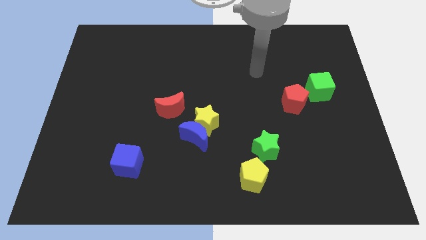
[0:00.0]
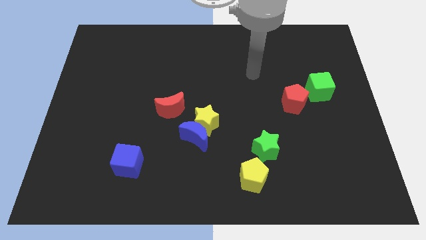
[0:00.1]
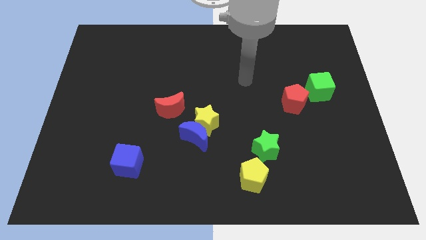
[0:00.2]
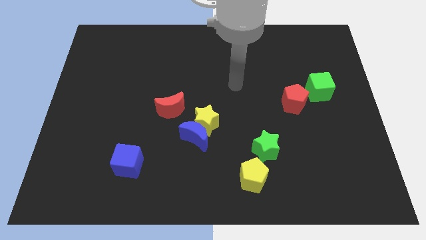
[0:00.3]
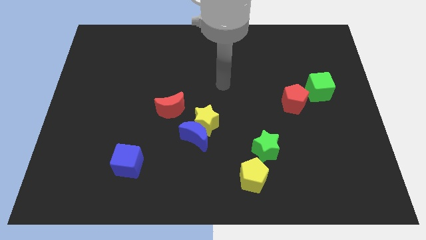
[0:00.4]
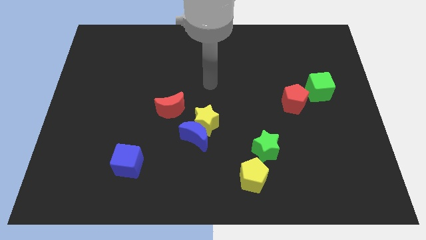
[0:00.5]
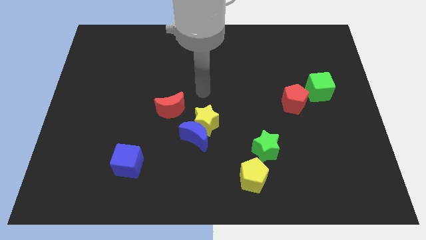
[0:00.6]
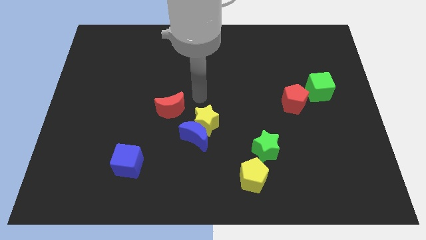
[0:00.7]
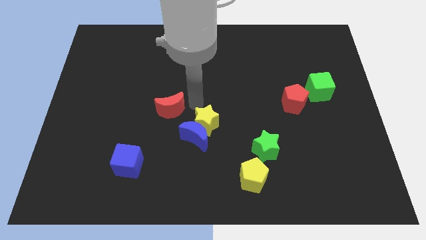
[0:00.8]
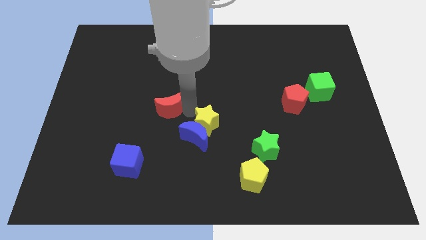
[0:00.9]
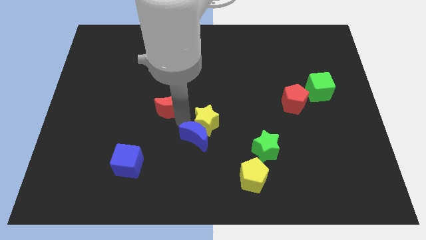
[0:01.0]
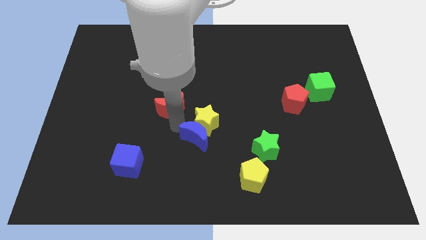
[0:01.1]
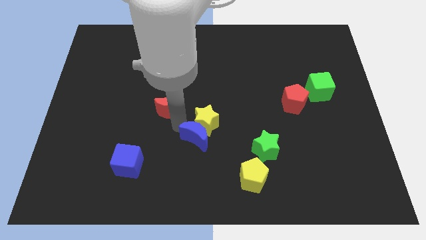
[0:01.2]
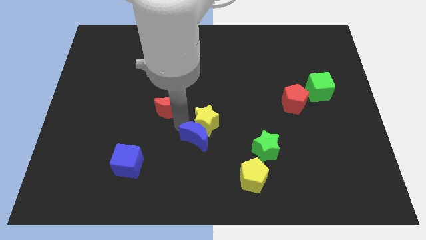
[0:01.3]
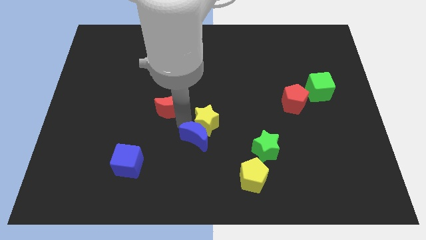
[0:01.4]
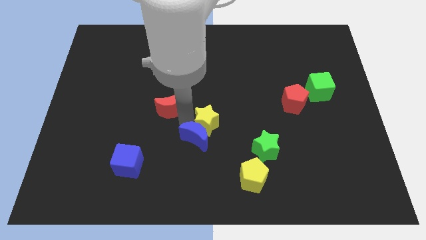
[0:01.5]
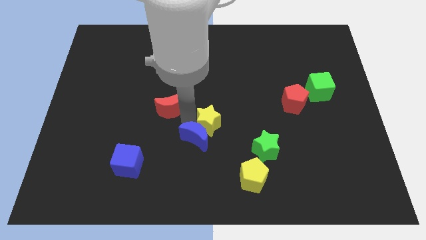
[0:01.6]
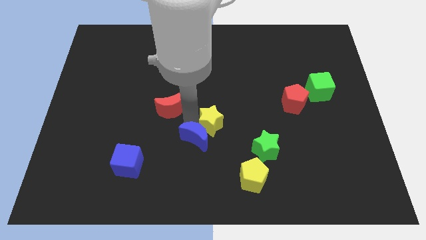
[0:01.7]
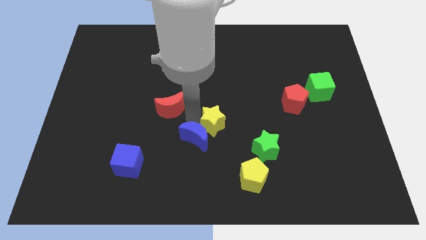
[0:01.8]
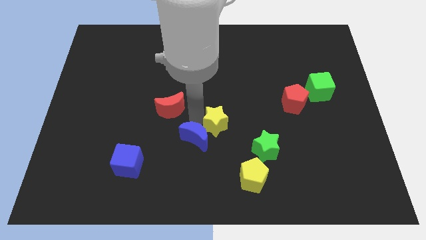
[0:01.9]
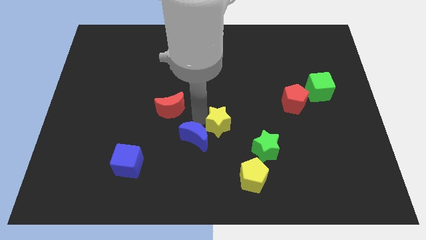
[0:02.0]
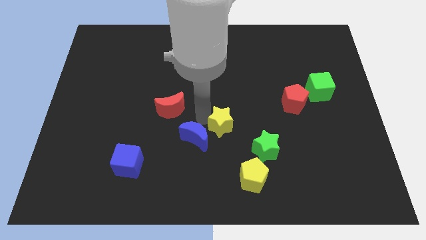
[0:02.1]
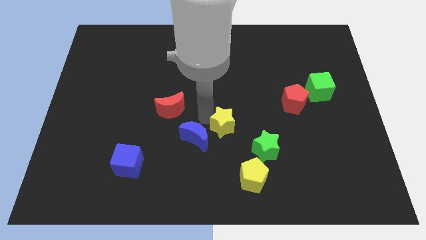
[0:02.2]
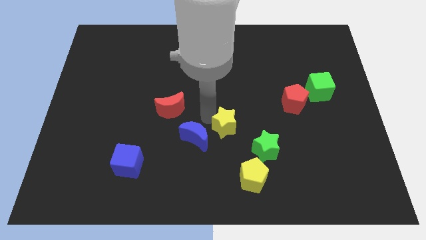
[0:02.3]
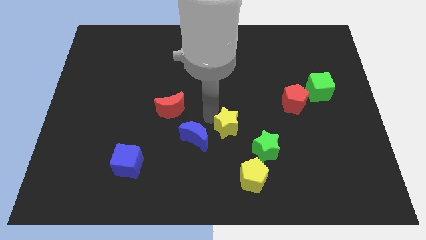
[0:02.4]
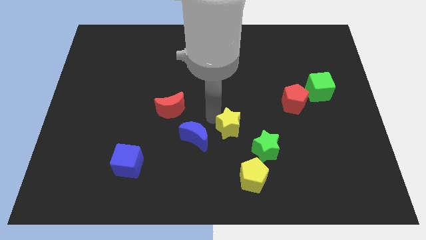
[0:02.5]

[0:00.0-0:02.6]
separate the yellow star from the blue moon and red moon

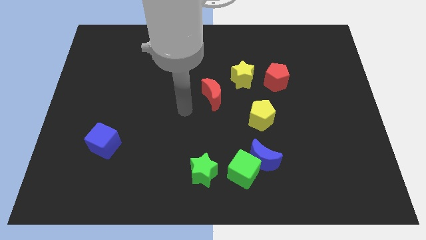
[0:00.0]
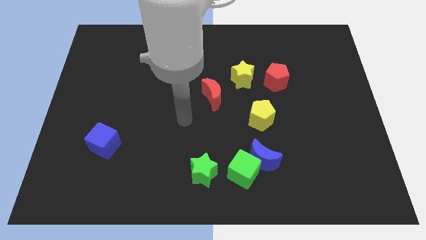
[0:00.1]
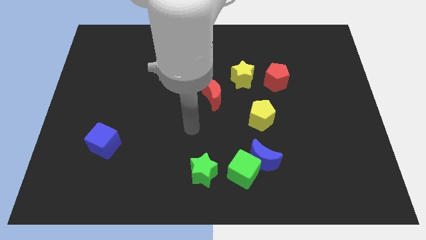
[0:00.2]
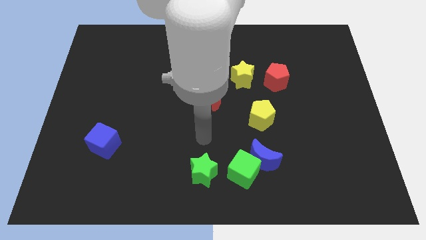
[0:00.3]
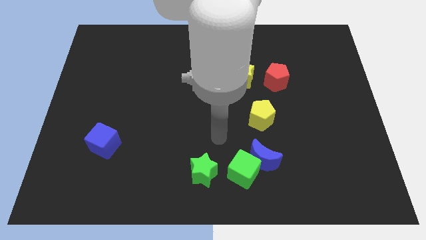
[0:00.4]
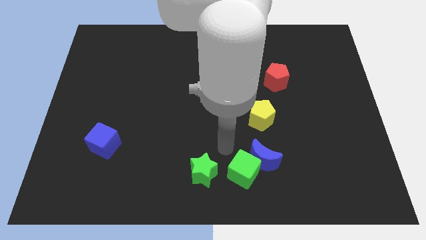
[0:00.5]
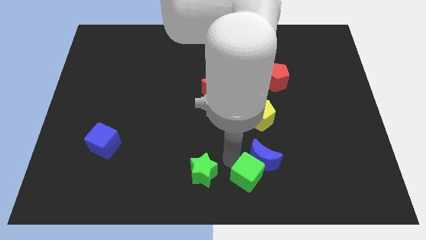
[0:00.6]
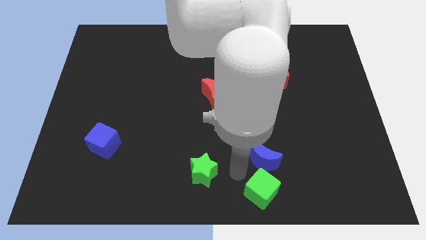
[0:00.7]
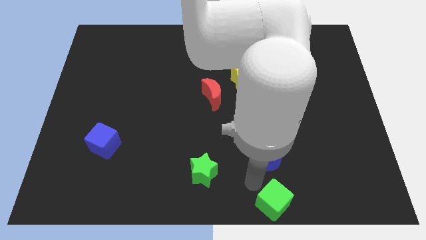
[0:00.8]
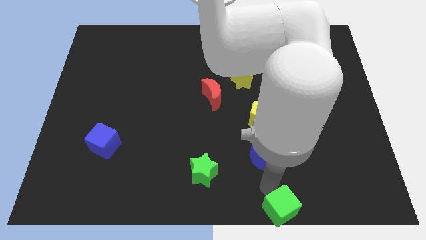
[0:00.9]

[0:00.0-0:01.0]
pull the blue moon apart from the green cube

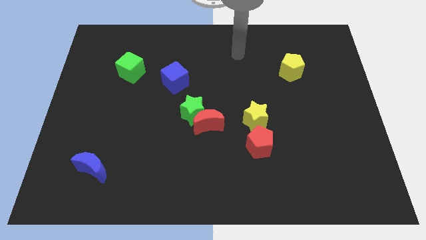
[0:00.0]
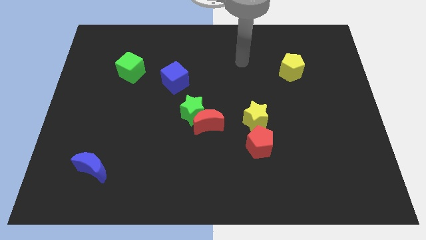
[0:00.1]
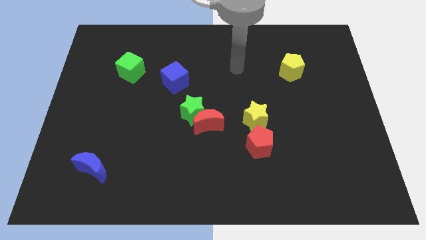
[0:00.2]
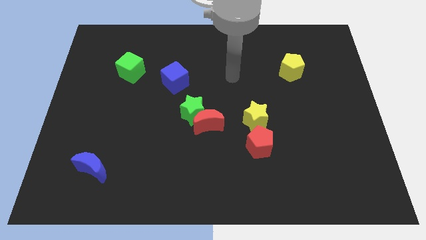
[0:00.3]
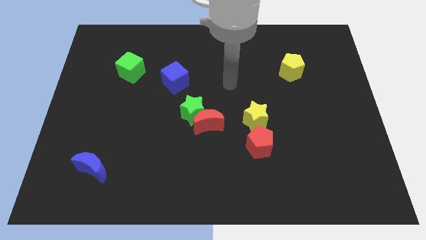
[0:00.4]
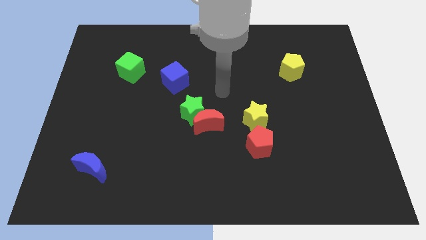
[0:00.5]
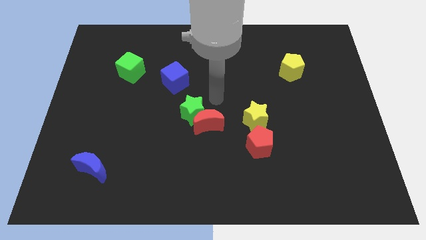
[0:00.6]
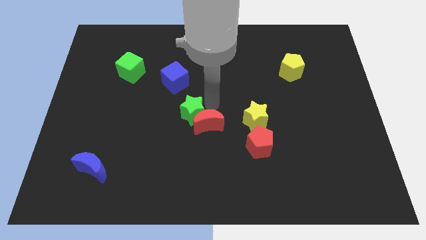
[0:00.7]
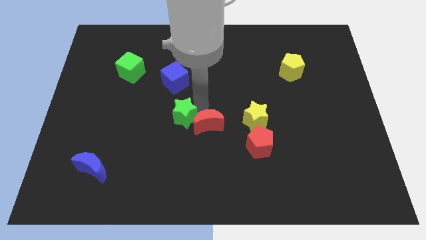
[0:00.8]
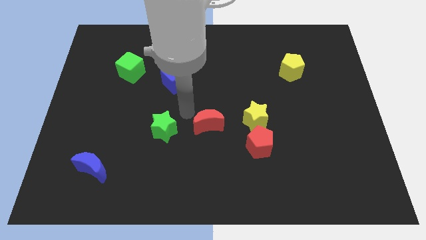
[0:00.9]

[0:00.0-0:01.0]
separate the red moon from the green star

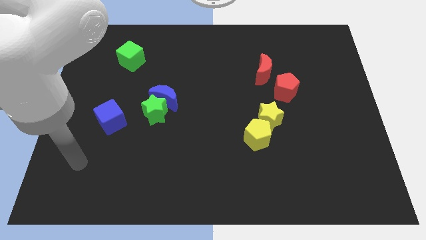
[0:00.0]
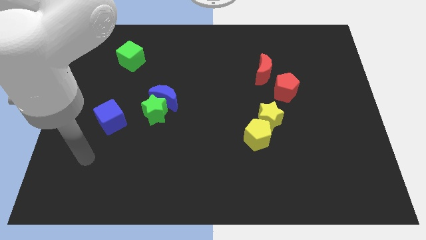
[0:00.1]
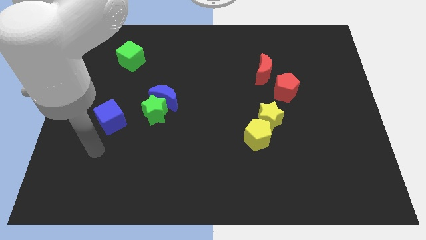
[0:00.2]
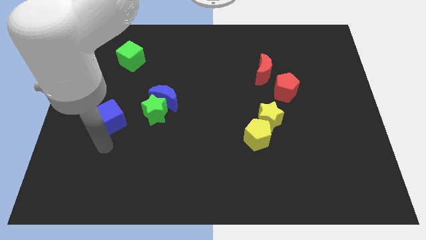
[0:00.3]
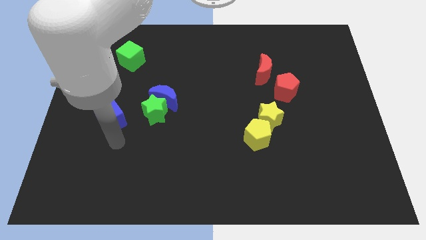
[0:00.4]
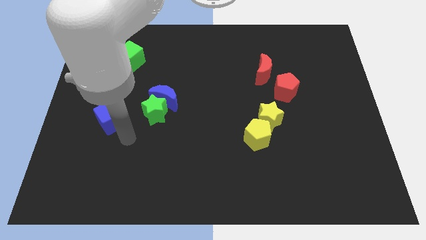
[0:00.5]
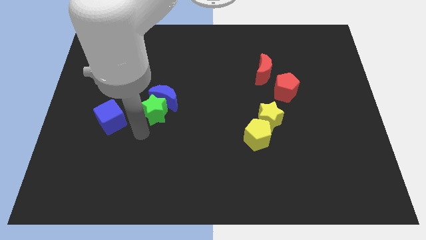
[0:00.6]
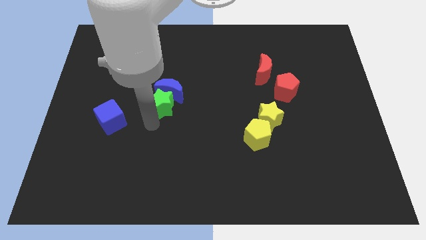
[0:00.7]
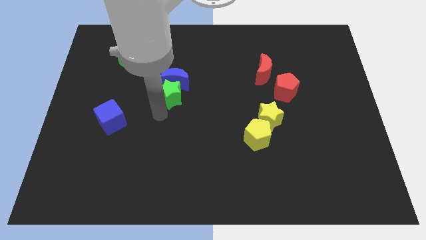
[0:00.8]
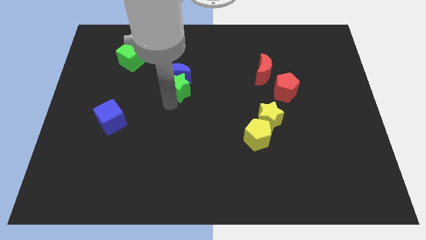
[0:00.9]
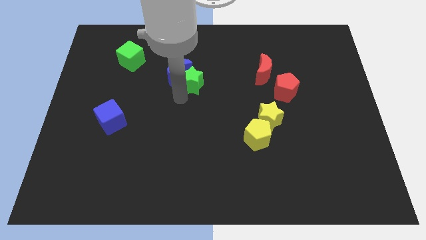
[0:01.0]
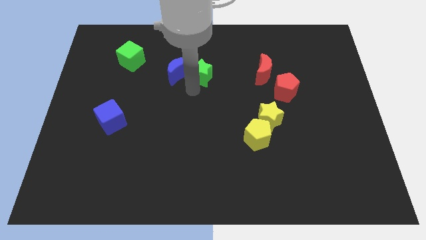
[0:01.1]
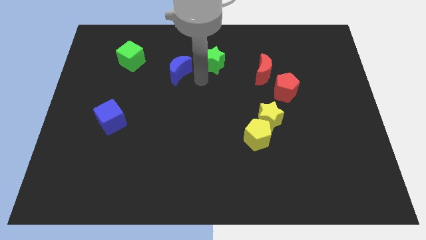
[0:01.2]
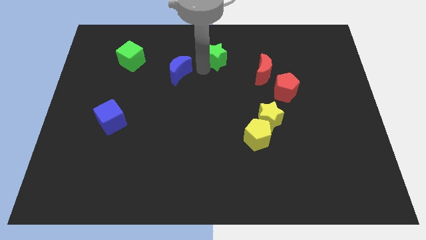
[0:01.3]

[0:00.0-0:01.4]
separate the blue moon from the green star

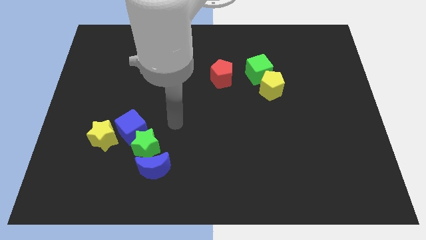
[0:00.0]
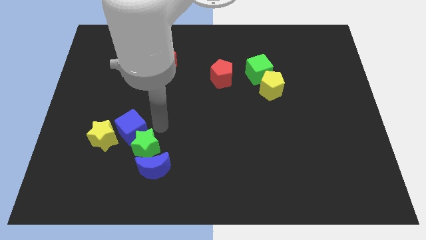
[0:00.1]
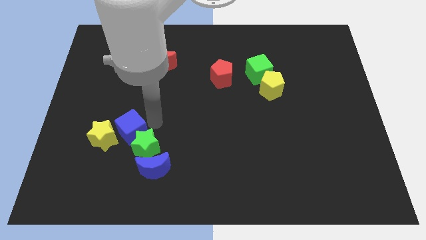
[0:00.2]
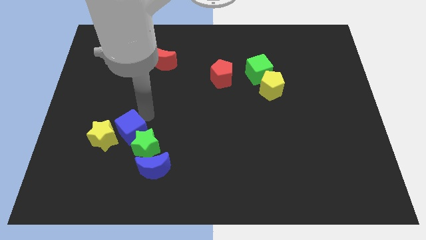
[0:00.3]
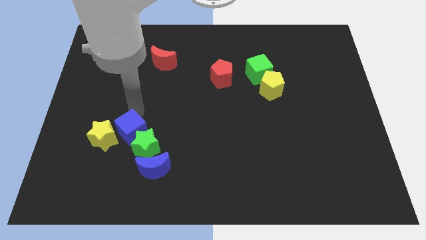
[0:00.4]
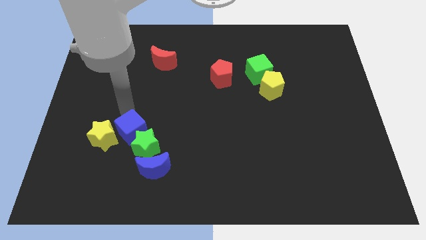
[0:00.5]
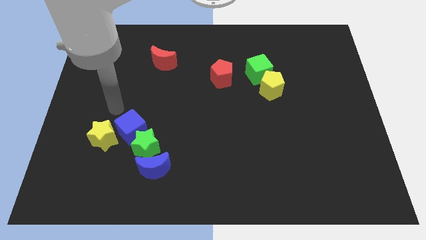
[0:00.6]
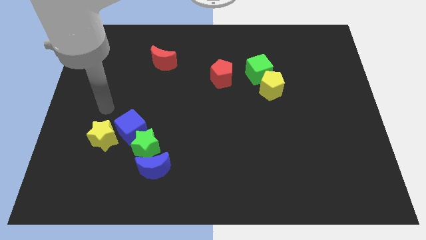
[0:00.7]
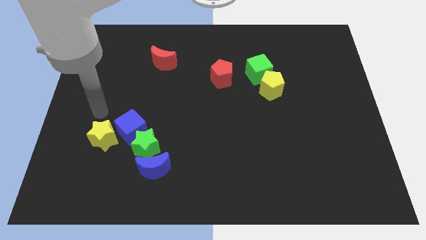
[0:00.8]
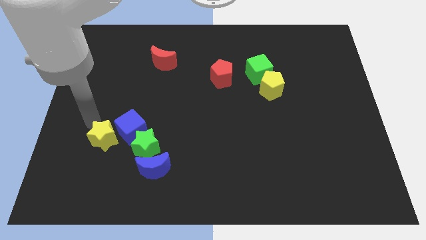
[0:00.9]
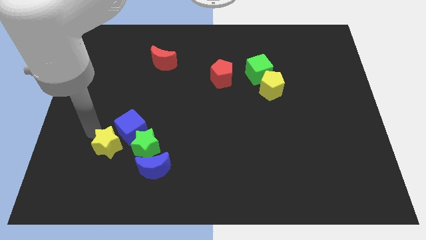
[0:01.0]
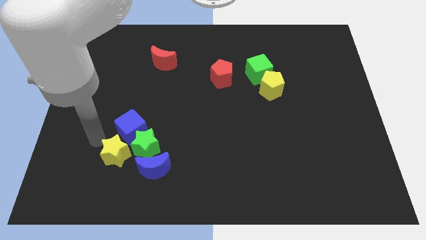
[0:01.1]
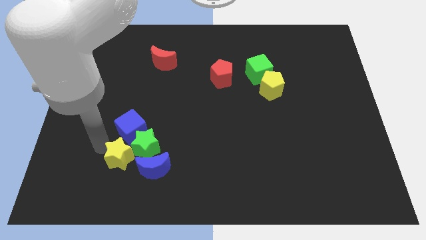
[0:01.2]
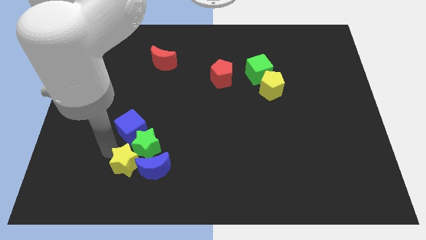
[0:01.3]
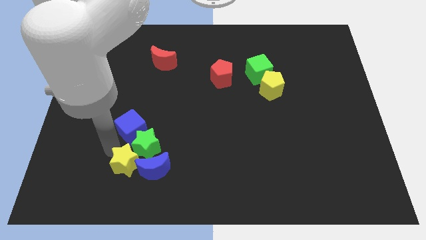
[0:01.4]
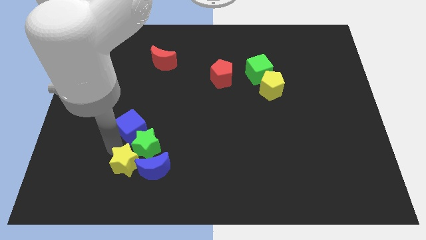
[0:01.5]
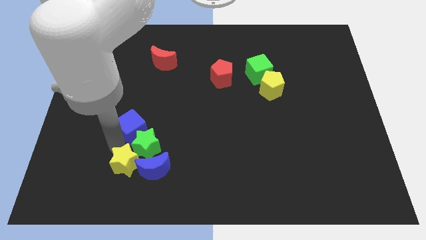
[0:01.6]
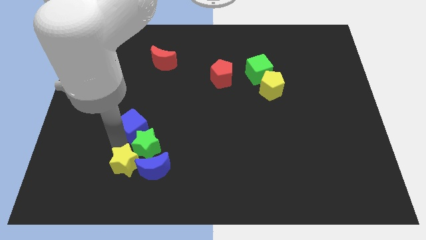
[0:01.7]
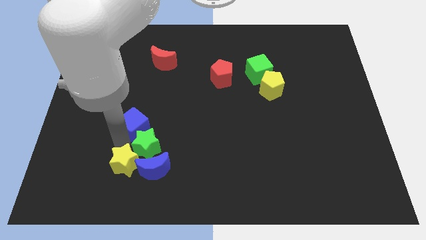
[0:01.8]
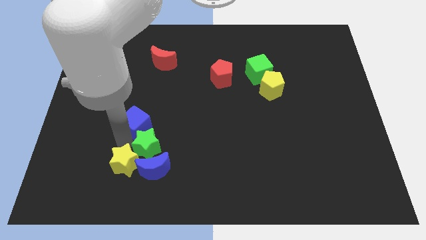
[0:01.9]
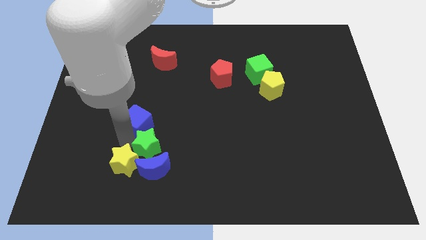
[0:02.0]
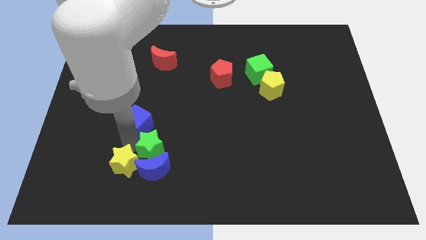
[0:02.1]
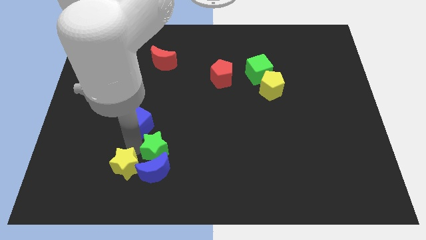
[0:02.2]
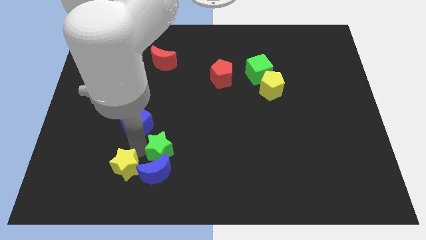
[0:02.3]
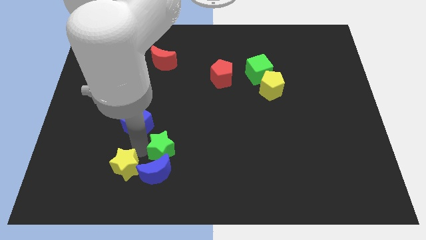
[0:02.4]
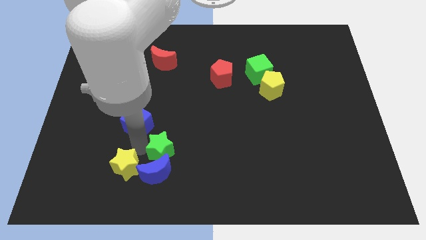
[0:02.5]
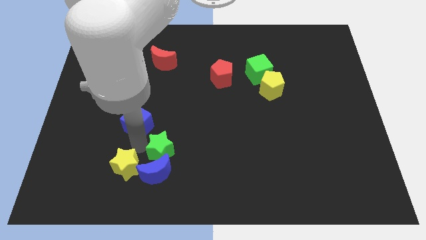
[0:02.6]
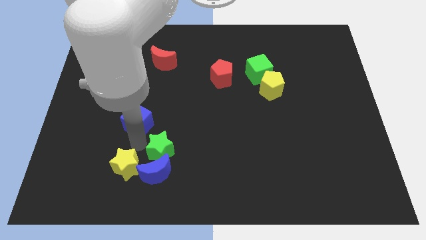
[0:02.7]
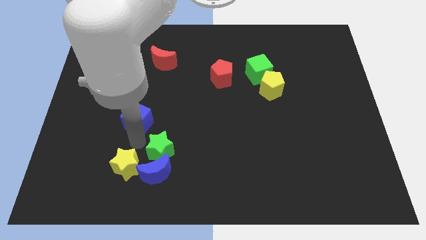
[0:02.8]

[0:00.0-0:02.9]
move the blue cube away from the green star and yellow star

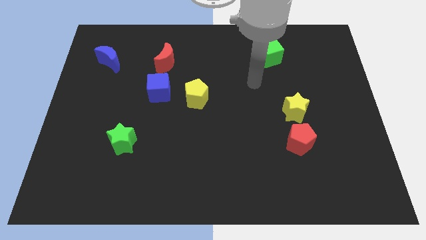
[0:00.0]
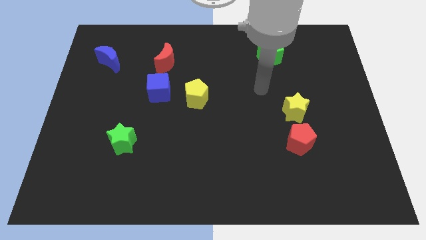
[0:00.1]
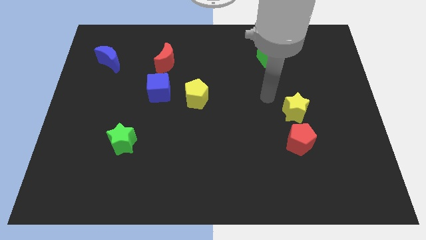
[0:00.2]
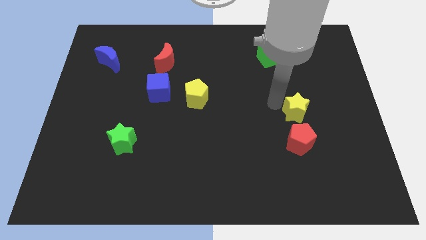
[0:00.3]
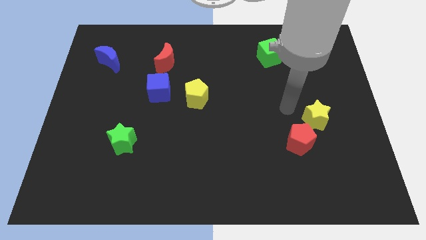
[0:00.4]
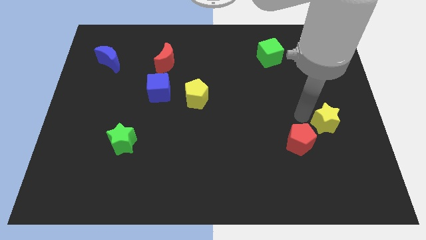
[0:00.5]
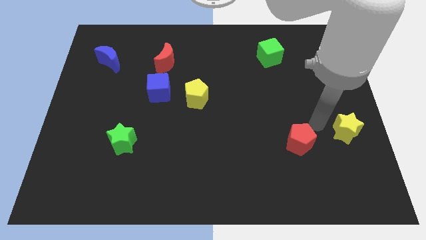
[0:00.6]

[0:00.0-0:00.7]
move the red pentagon away from the yellow star
